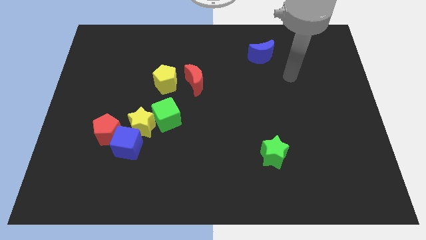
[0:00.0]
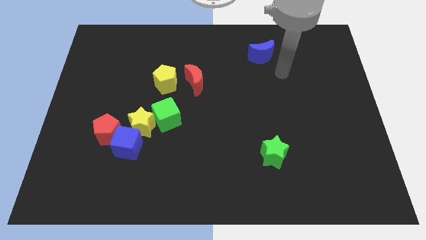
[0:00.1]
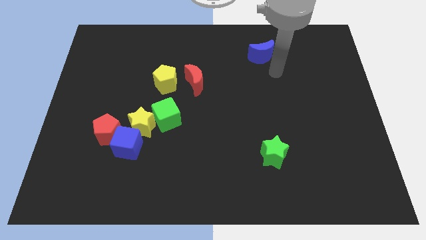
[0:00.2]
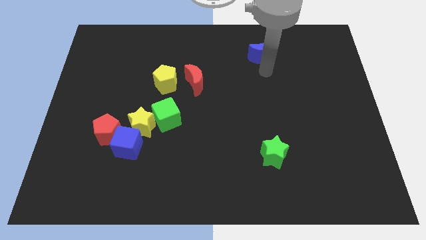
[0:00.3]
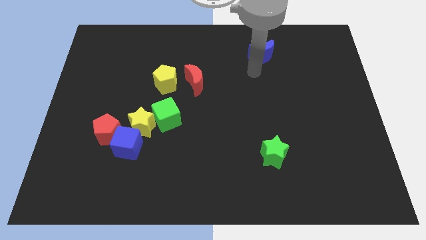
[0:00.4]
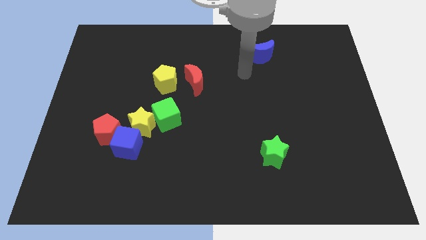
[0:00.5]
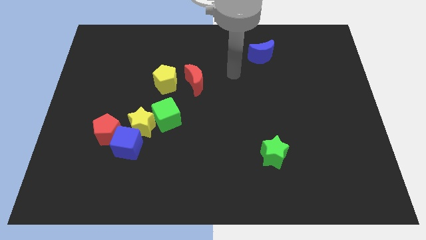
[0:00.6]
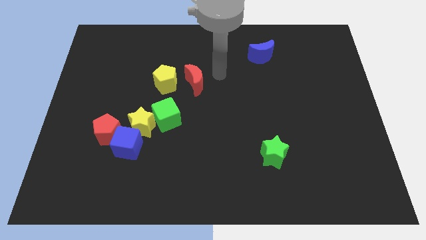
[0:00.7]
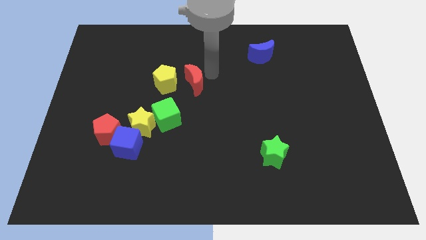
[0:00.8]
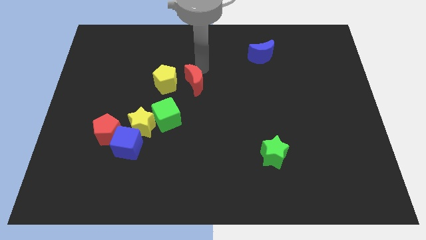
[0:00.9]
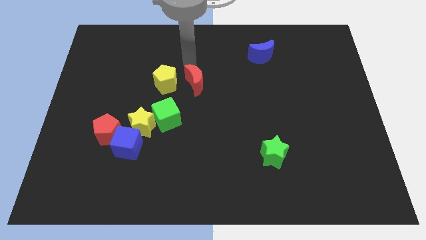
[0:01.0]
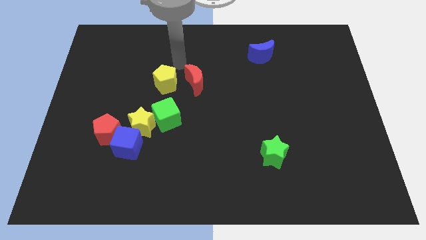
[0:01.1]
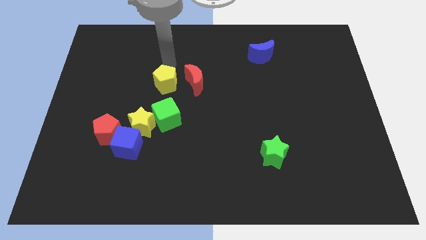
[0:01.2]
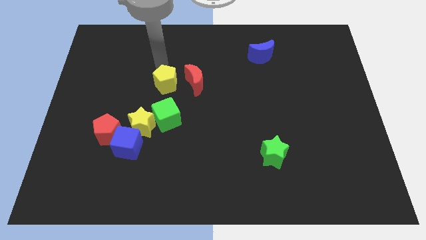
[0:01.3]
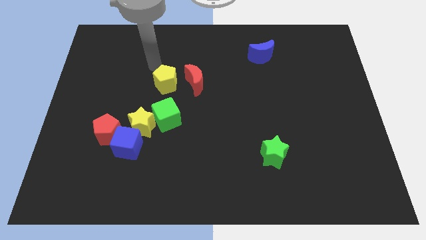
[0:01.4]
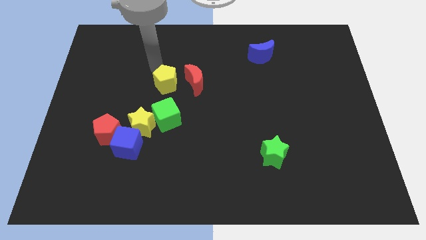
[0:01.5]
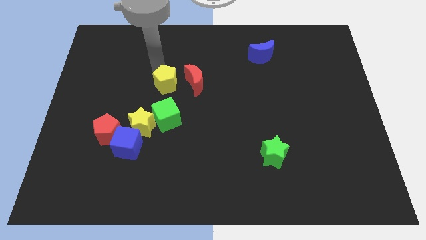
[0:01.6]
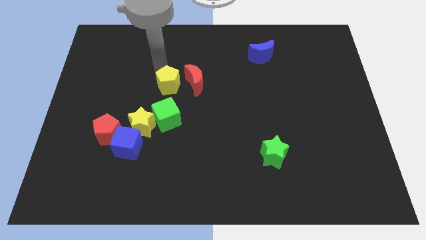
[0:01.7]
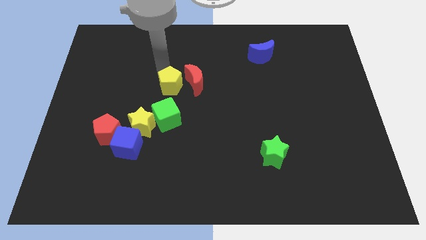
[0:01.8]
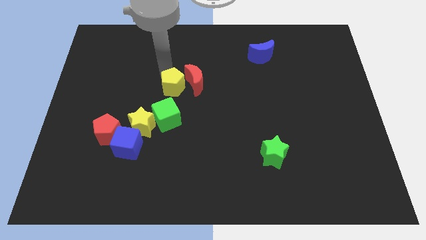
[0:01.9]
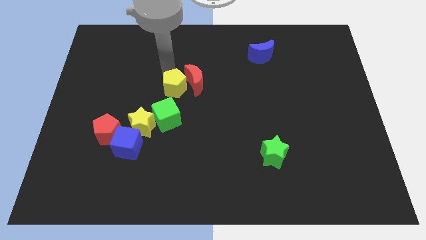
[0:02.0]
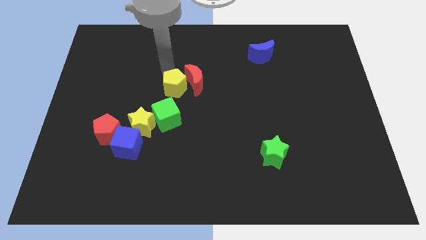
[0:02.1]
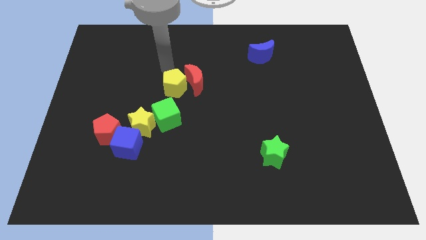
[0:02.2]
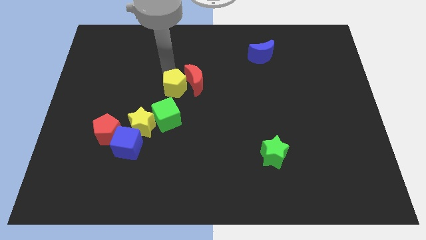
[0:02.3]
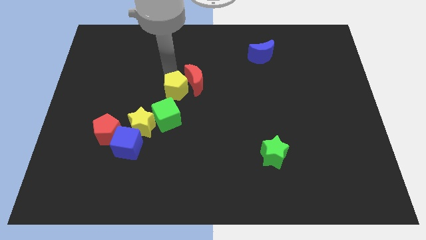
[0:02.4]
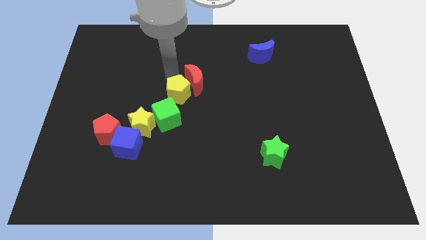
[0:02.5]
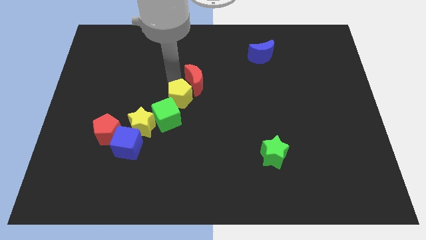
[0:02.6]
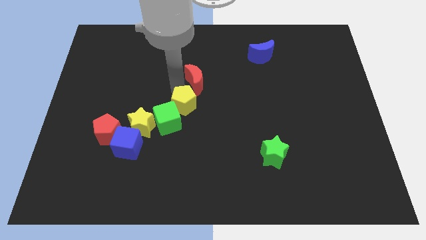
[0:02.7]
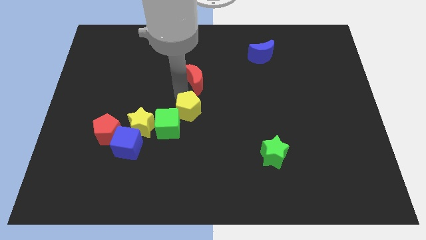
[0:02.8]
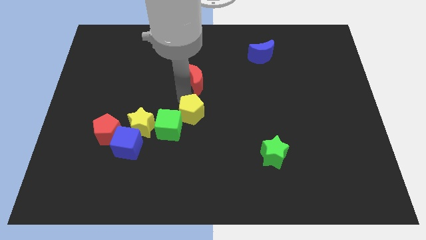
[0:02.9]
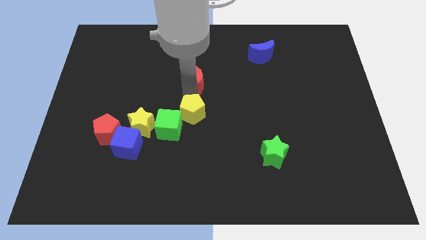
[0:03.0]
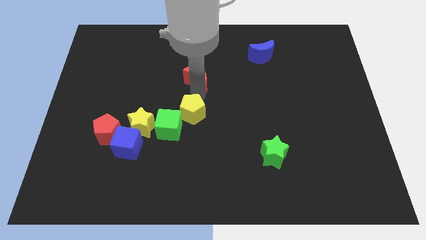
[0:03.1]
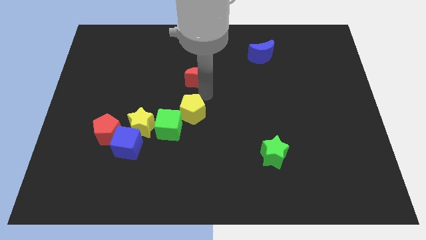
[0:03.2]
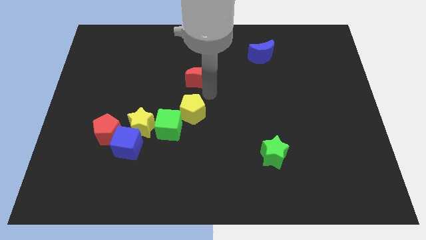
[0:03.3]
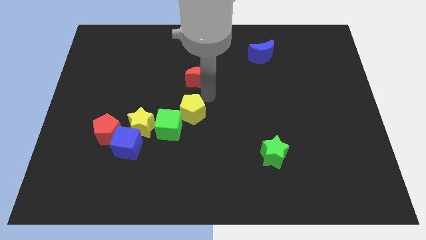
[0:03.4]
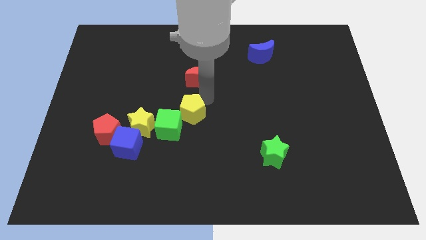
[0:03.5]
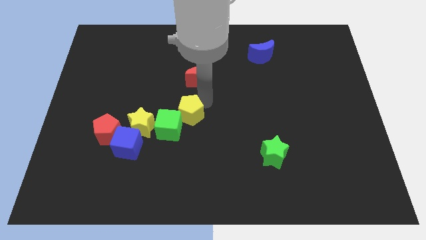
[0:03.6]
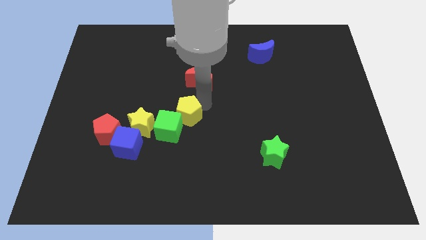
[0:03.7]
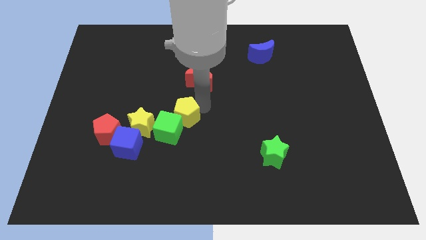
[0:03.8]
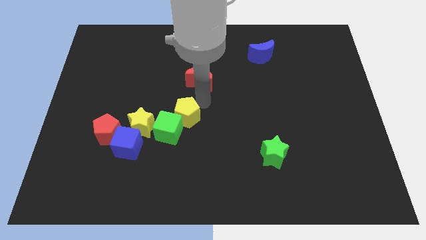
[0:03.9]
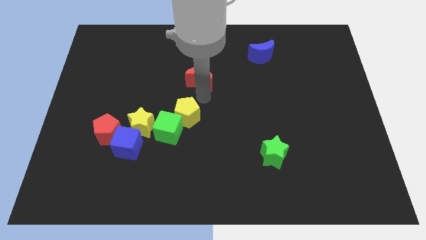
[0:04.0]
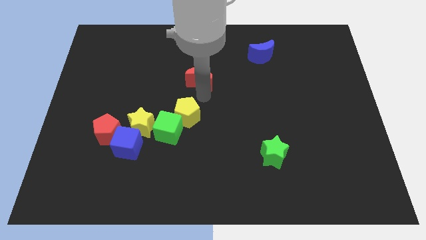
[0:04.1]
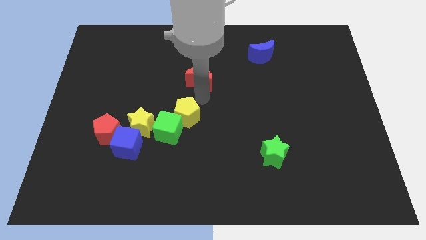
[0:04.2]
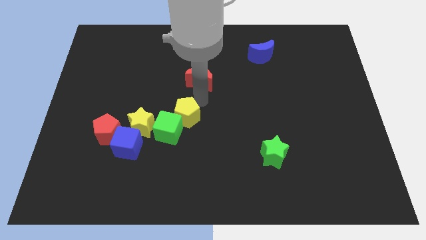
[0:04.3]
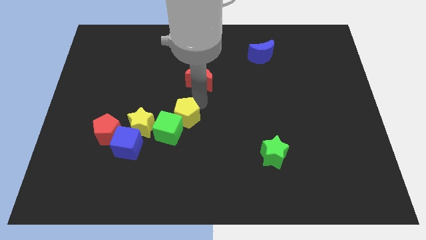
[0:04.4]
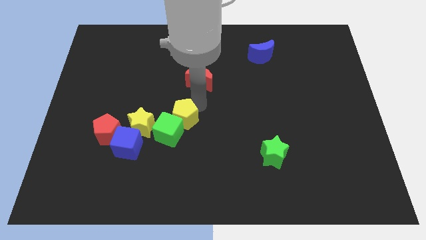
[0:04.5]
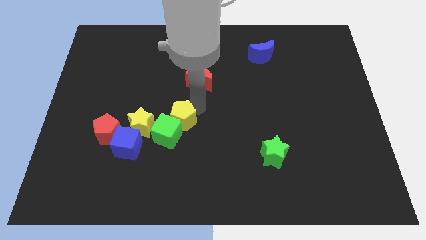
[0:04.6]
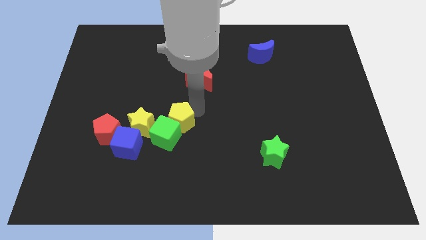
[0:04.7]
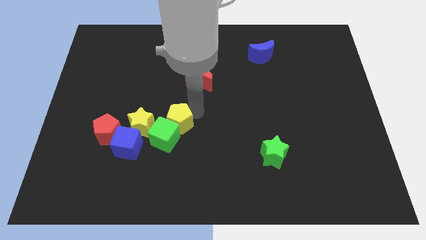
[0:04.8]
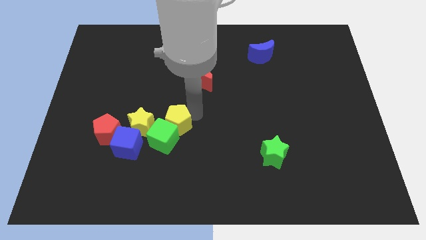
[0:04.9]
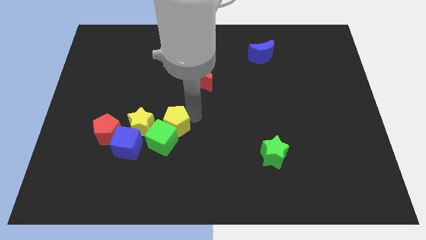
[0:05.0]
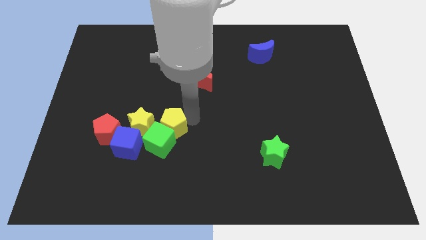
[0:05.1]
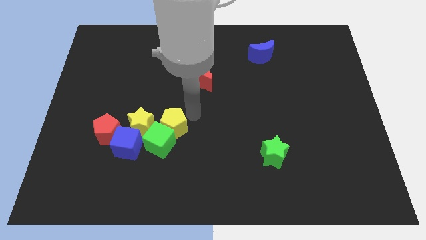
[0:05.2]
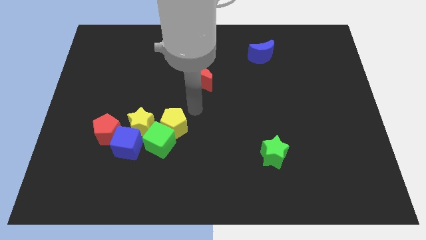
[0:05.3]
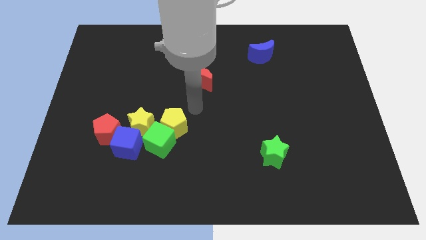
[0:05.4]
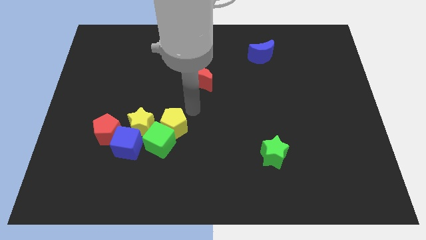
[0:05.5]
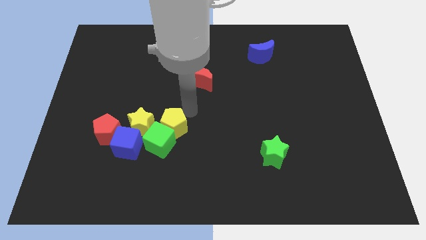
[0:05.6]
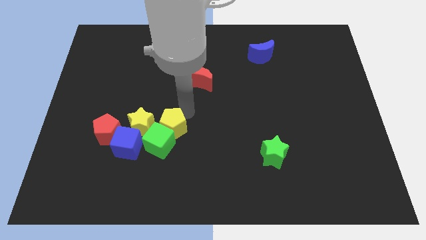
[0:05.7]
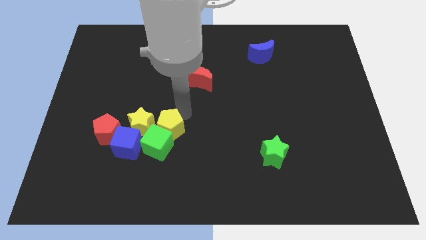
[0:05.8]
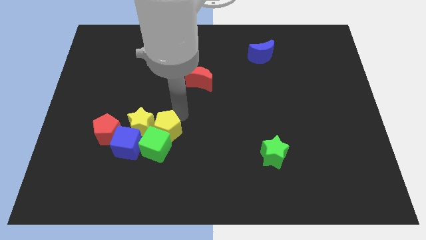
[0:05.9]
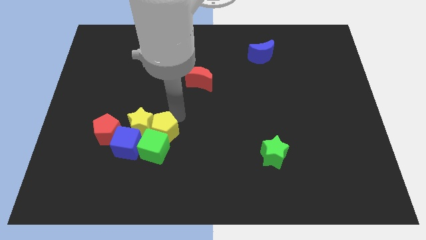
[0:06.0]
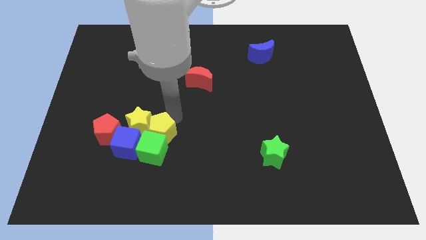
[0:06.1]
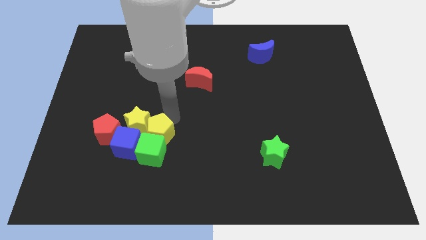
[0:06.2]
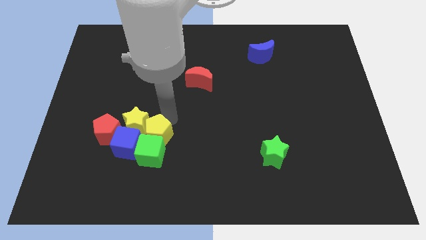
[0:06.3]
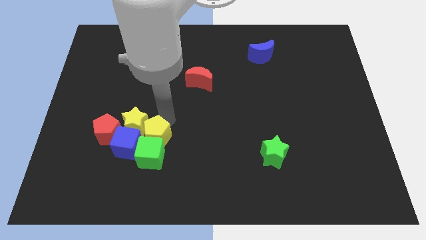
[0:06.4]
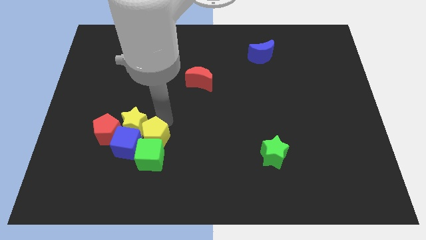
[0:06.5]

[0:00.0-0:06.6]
put the yellow pentagon next to the blue cube
